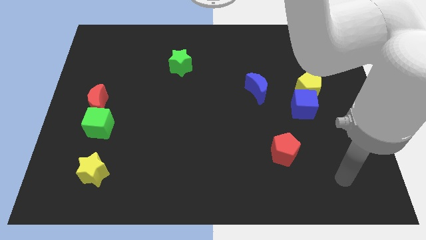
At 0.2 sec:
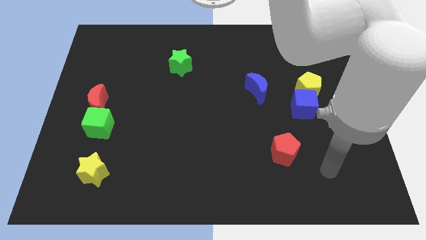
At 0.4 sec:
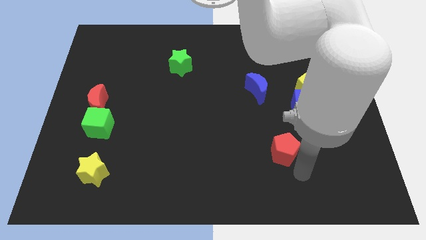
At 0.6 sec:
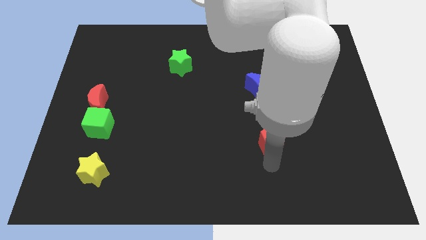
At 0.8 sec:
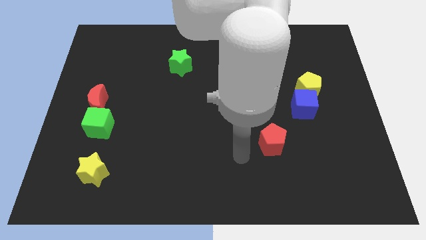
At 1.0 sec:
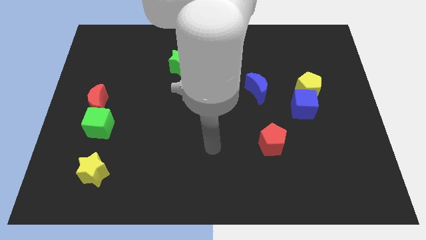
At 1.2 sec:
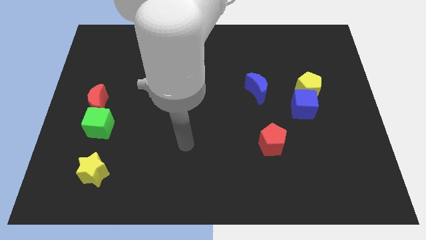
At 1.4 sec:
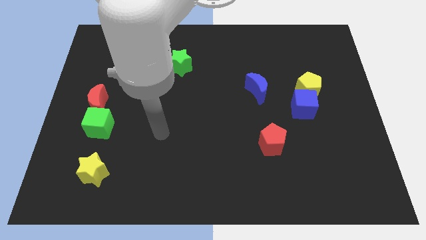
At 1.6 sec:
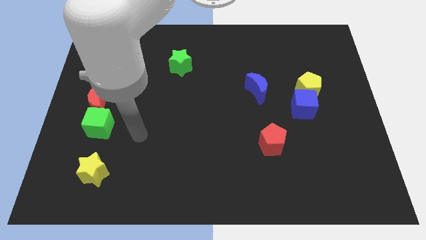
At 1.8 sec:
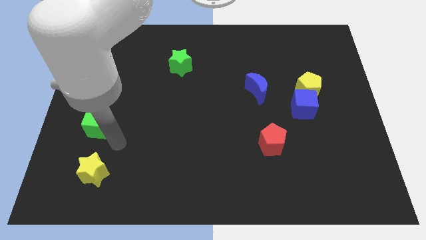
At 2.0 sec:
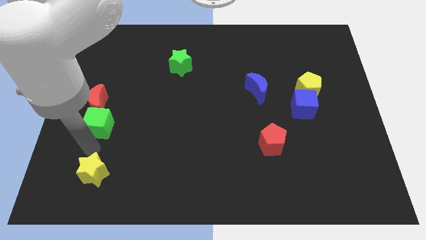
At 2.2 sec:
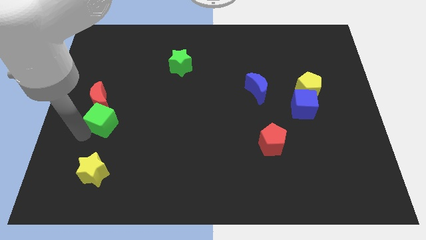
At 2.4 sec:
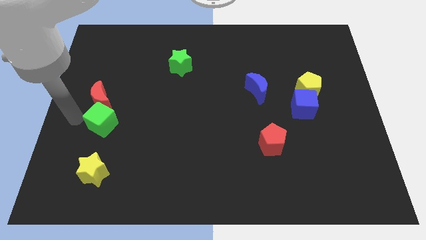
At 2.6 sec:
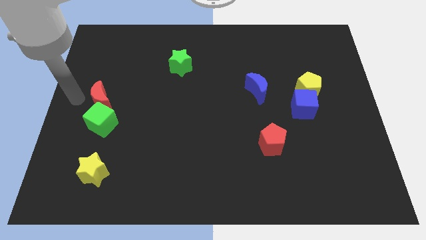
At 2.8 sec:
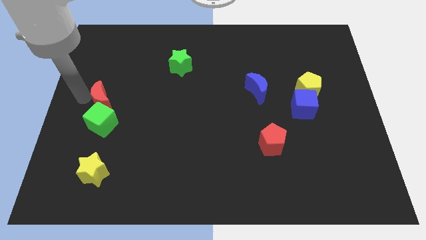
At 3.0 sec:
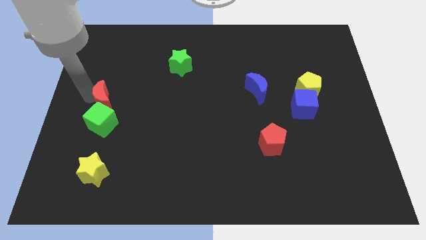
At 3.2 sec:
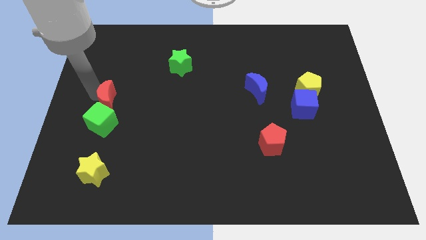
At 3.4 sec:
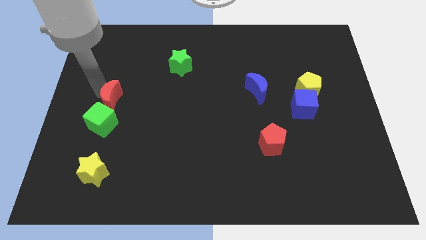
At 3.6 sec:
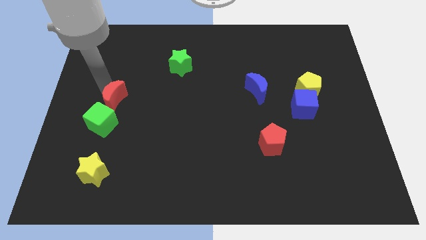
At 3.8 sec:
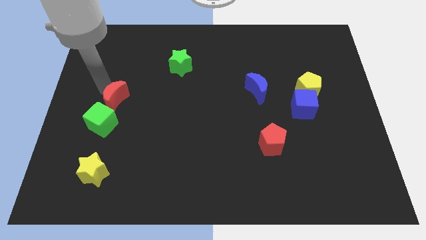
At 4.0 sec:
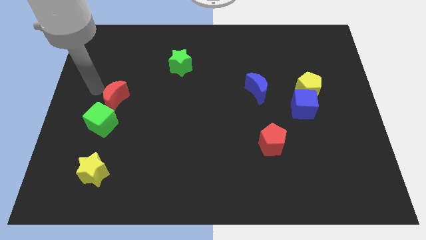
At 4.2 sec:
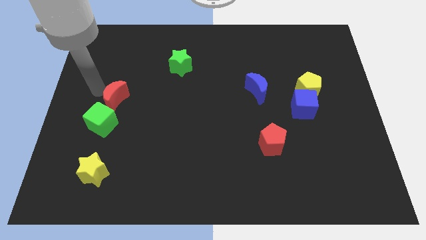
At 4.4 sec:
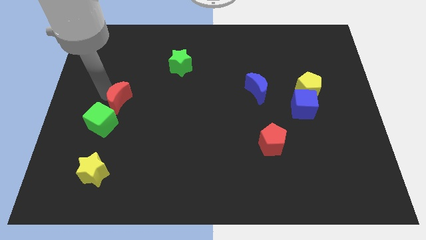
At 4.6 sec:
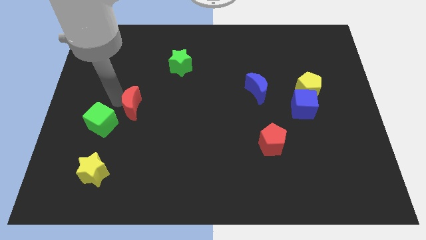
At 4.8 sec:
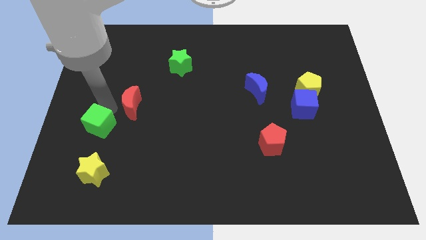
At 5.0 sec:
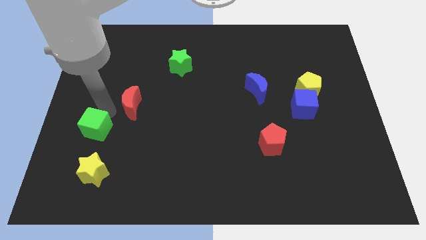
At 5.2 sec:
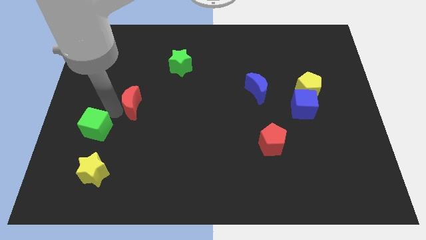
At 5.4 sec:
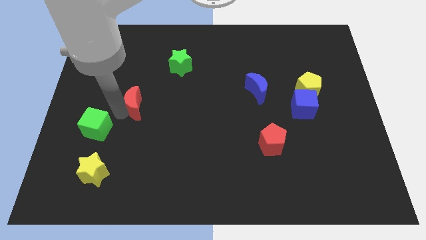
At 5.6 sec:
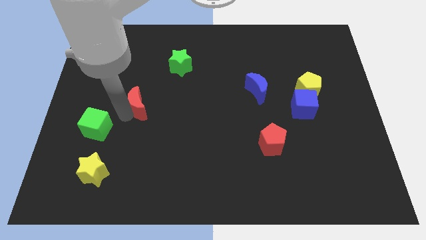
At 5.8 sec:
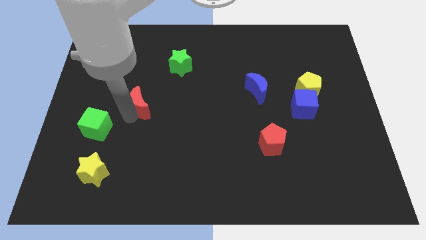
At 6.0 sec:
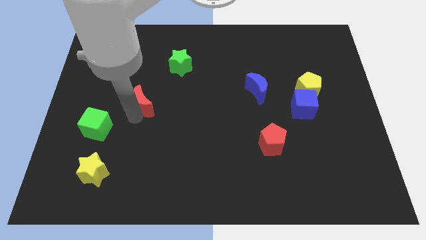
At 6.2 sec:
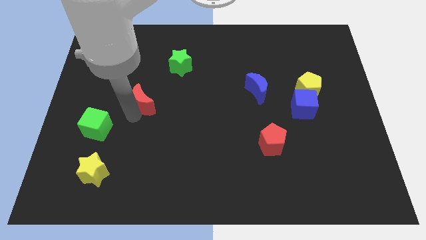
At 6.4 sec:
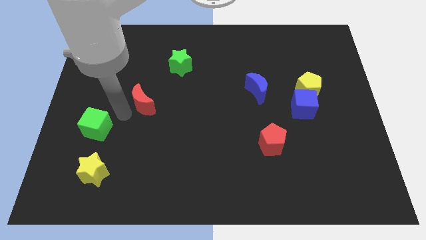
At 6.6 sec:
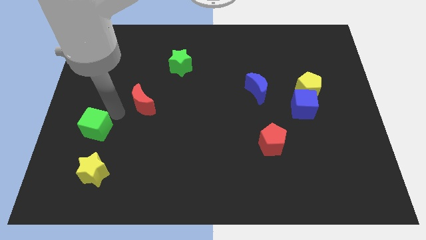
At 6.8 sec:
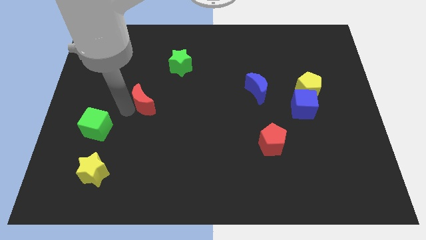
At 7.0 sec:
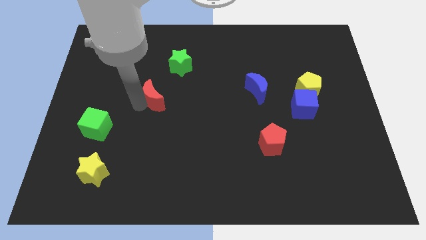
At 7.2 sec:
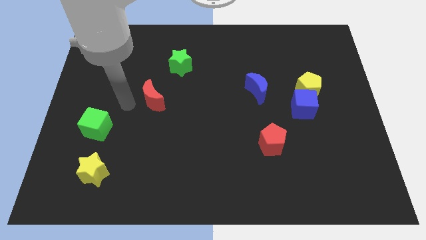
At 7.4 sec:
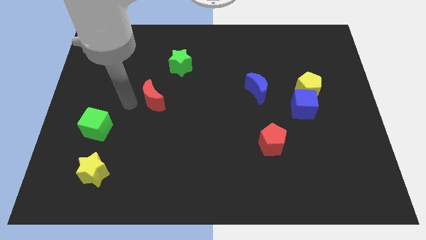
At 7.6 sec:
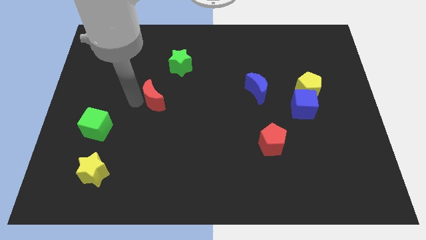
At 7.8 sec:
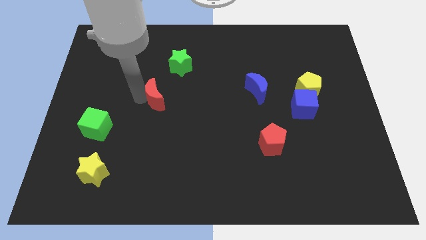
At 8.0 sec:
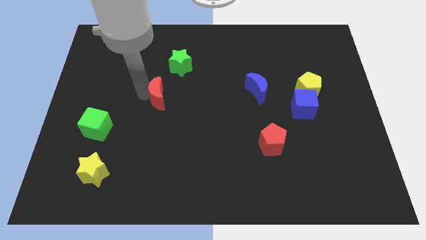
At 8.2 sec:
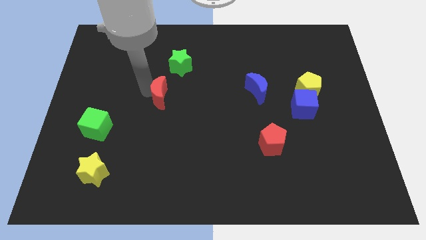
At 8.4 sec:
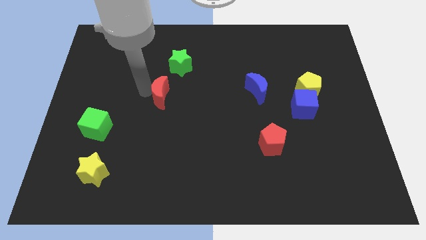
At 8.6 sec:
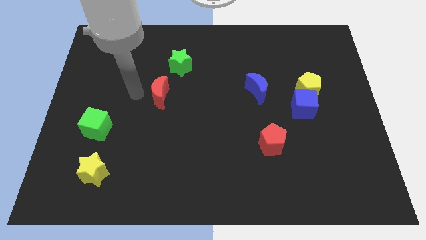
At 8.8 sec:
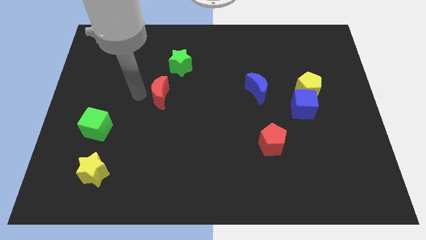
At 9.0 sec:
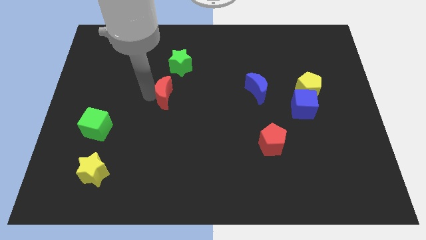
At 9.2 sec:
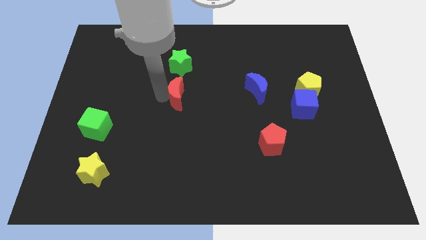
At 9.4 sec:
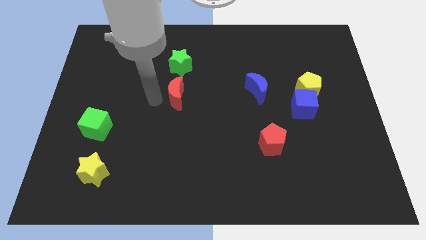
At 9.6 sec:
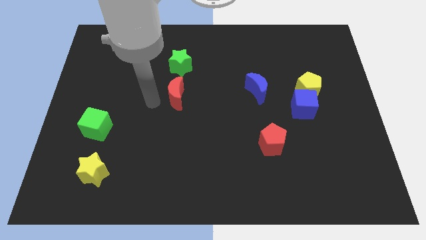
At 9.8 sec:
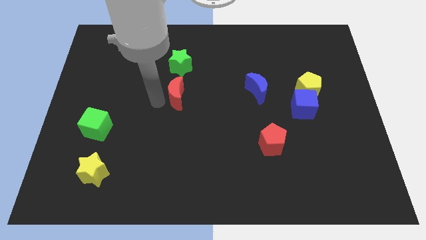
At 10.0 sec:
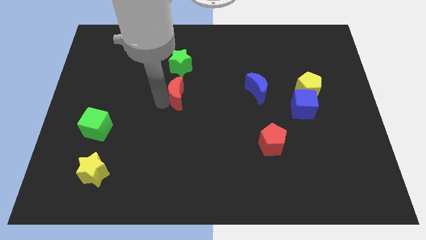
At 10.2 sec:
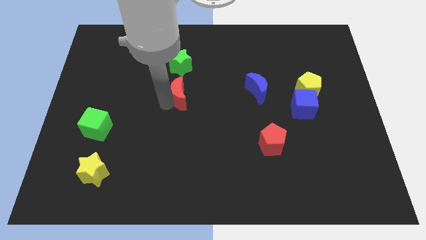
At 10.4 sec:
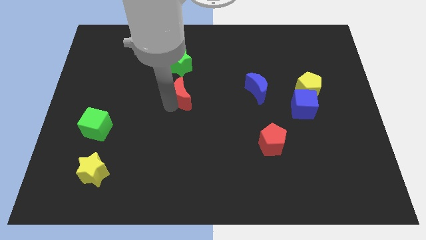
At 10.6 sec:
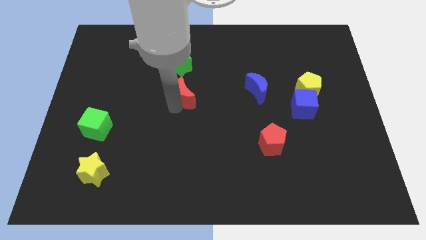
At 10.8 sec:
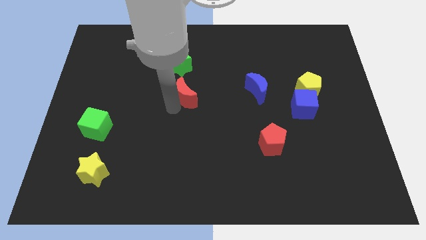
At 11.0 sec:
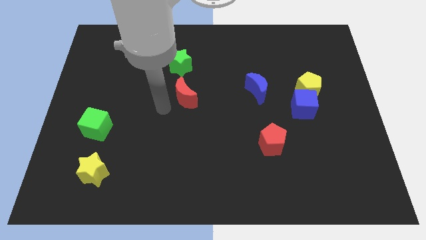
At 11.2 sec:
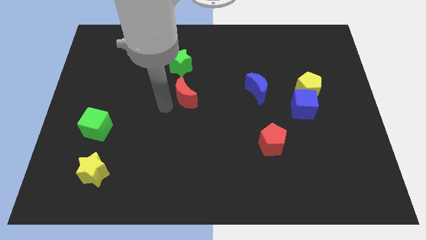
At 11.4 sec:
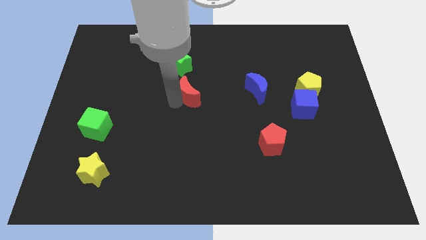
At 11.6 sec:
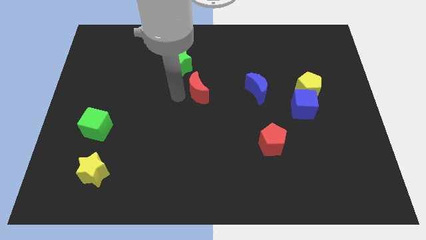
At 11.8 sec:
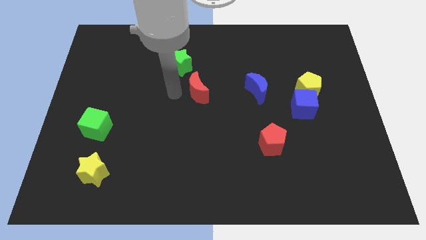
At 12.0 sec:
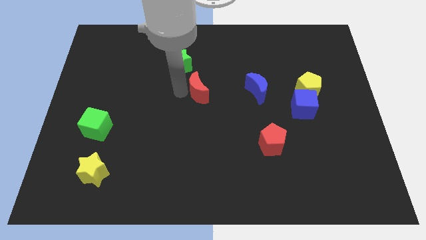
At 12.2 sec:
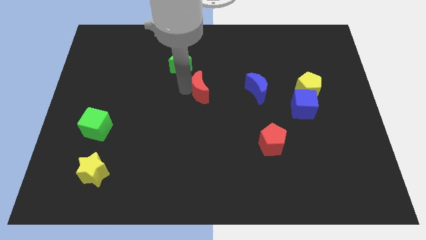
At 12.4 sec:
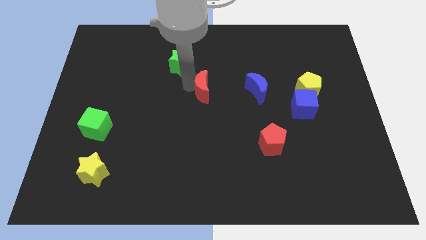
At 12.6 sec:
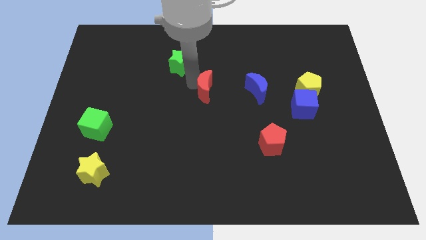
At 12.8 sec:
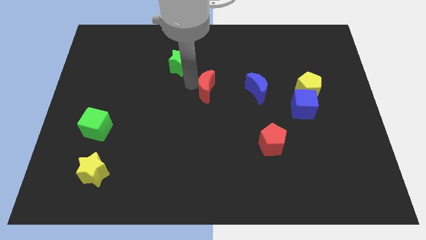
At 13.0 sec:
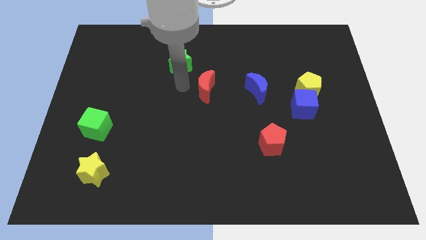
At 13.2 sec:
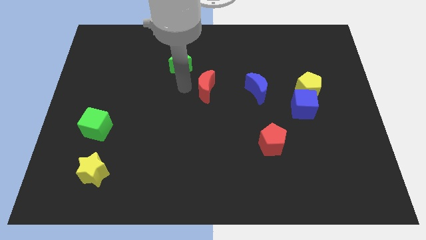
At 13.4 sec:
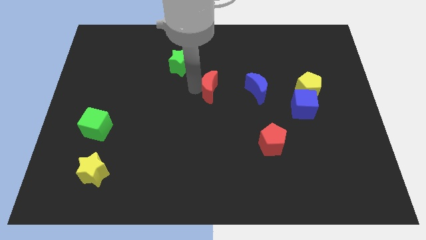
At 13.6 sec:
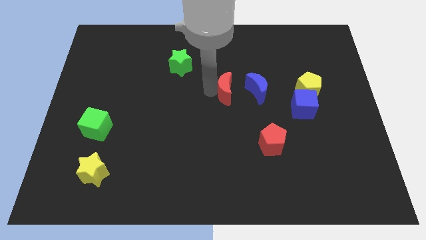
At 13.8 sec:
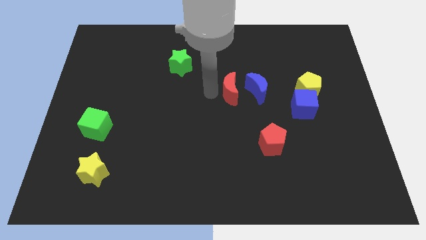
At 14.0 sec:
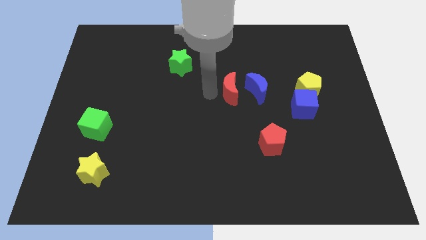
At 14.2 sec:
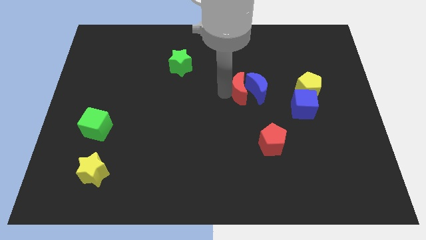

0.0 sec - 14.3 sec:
move the red moon close to the blue moon
